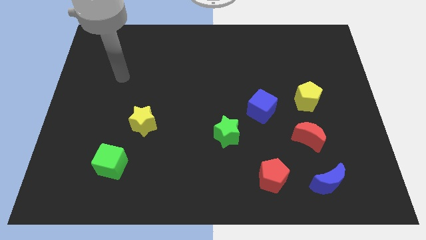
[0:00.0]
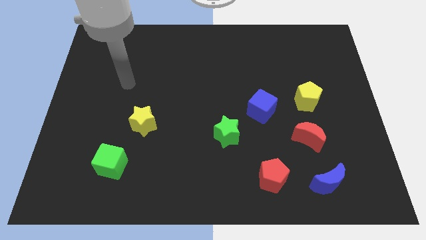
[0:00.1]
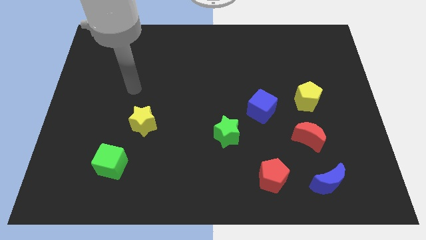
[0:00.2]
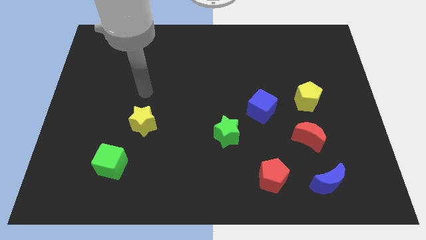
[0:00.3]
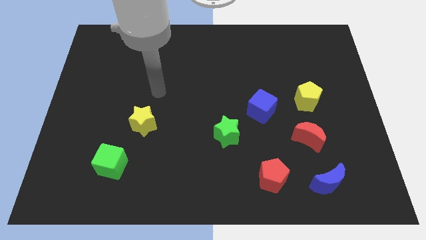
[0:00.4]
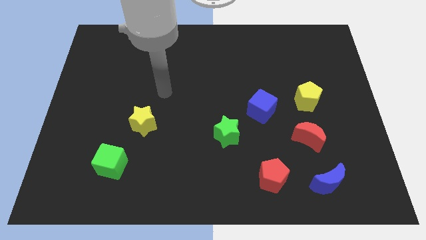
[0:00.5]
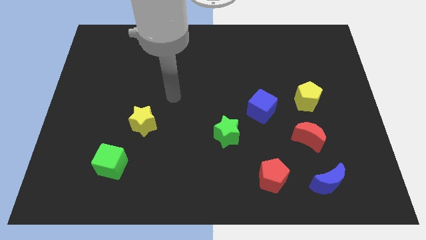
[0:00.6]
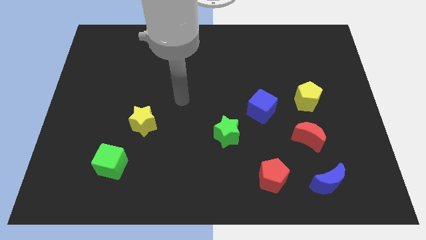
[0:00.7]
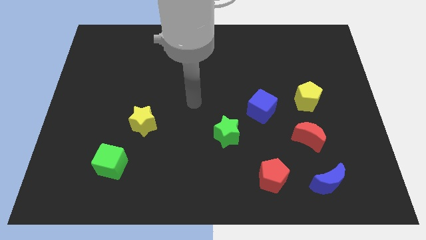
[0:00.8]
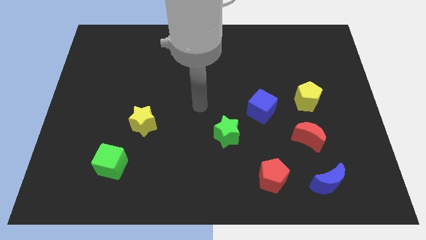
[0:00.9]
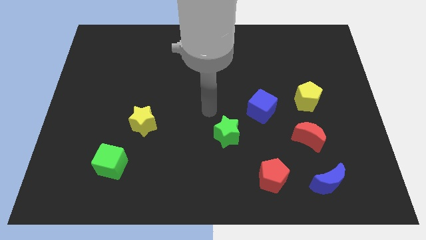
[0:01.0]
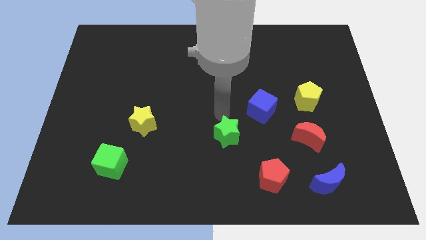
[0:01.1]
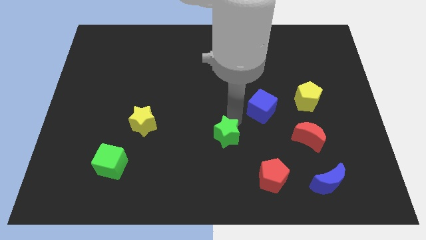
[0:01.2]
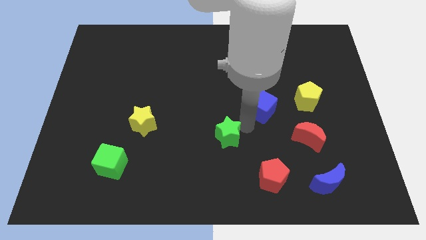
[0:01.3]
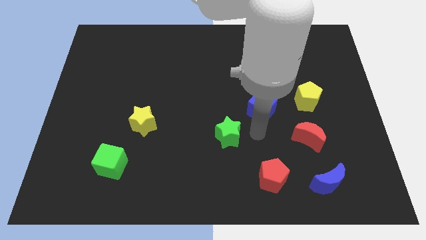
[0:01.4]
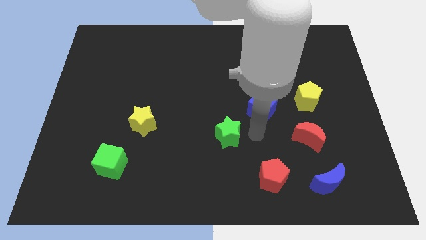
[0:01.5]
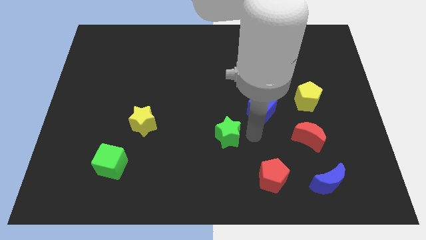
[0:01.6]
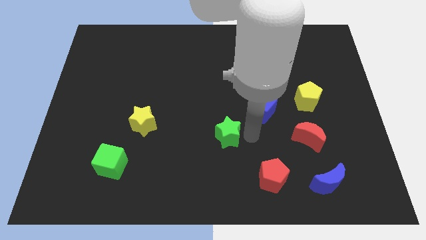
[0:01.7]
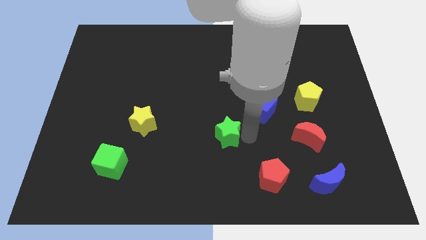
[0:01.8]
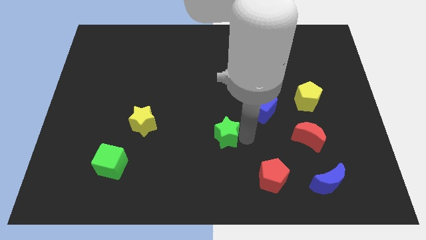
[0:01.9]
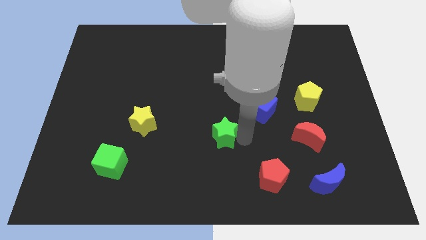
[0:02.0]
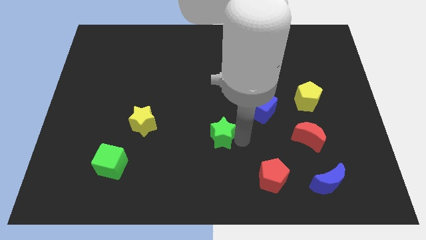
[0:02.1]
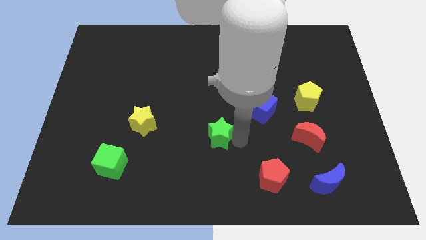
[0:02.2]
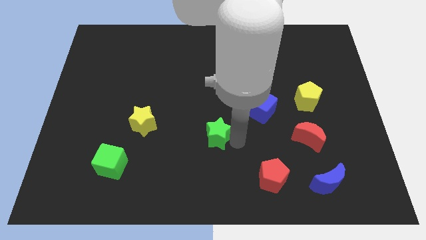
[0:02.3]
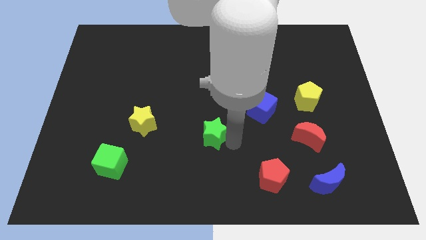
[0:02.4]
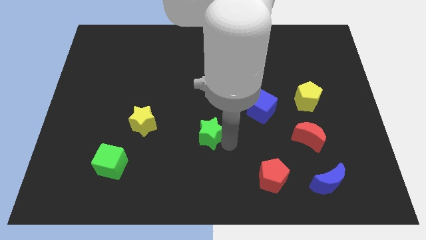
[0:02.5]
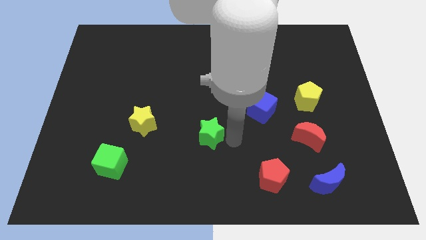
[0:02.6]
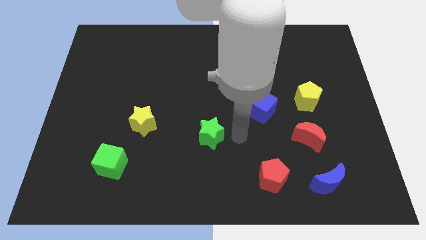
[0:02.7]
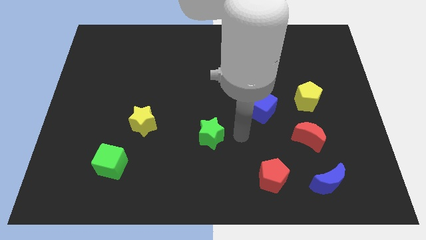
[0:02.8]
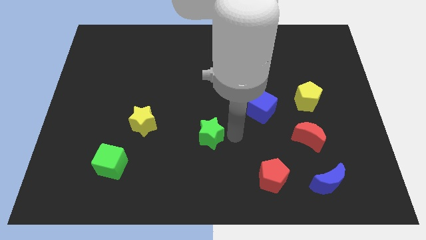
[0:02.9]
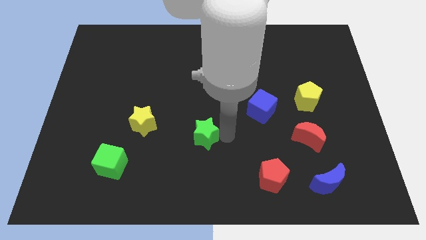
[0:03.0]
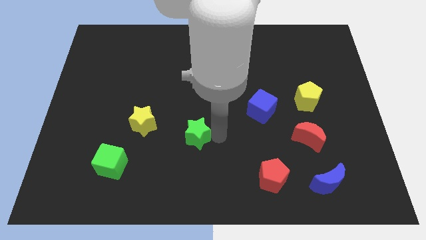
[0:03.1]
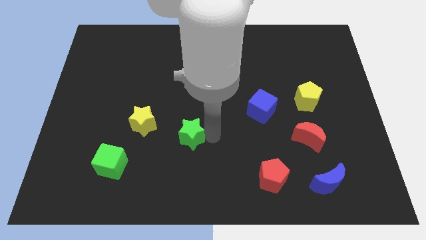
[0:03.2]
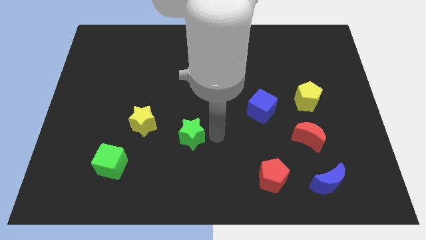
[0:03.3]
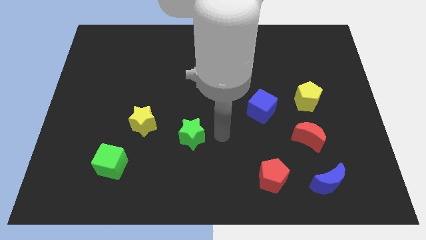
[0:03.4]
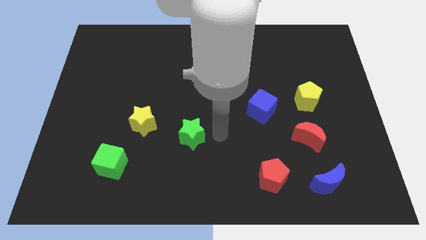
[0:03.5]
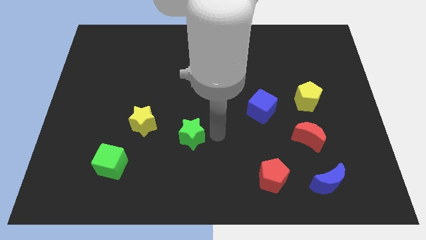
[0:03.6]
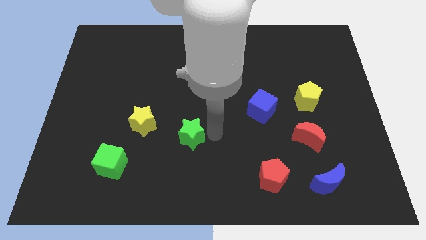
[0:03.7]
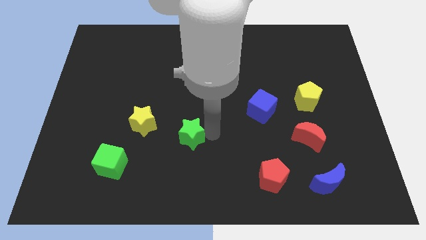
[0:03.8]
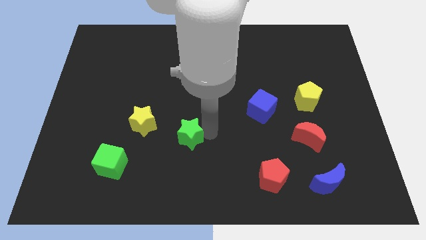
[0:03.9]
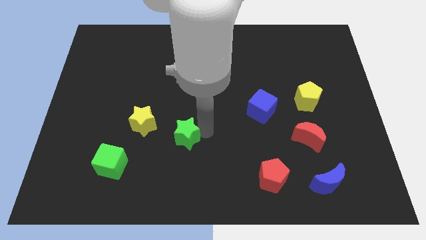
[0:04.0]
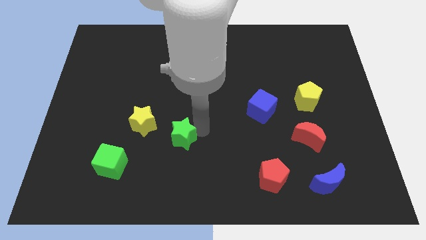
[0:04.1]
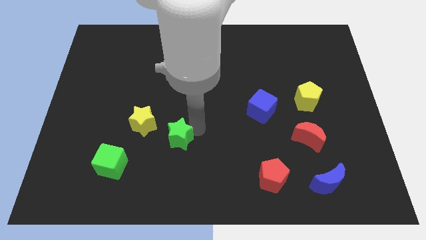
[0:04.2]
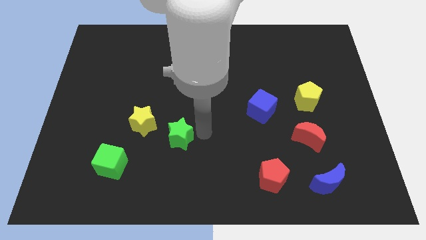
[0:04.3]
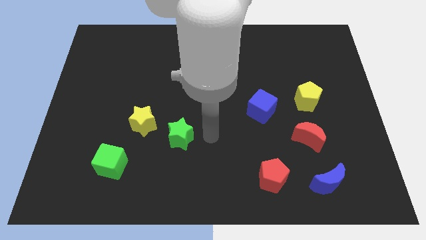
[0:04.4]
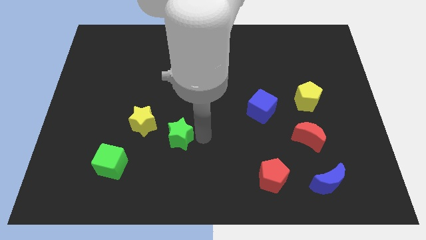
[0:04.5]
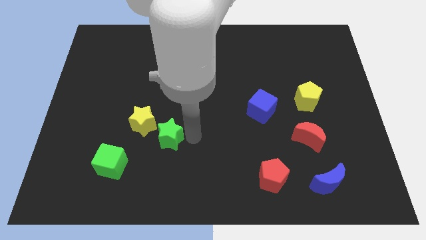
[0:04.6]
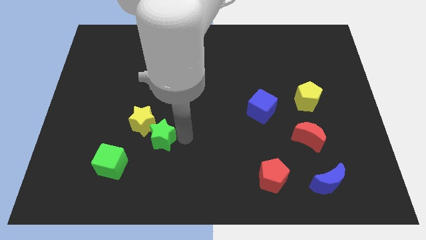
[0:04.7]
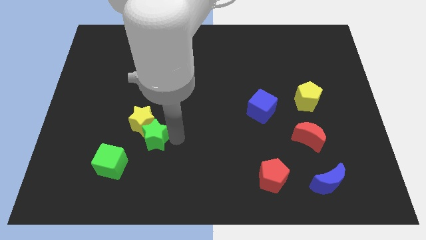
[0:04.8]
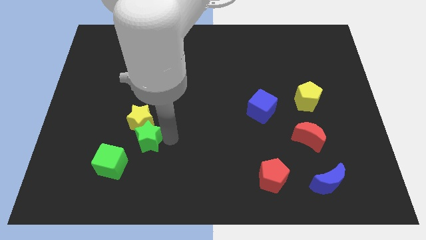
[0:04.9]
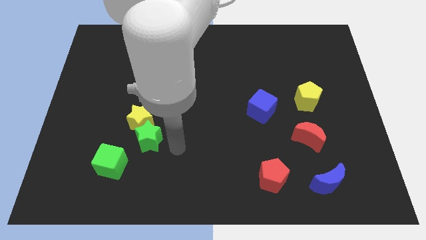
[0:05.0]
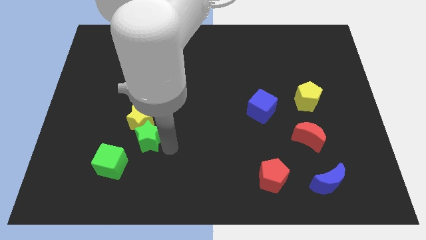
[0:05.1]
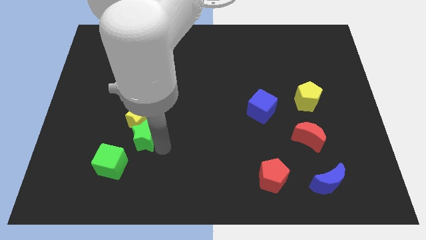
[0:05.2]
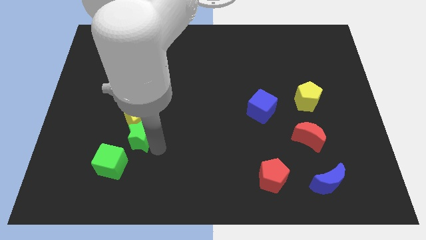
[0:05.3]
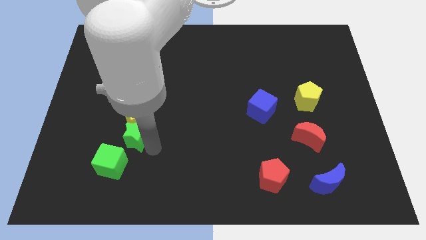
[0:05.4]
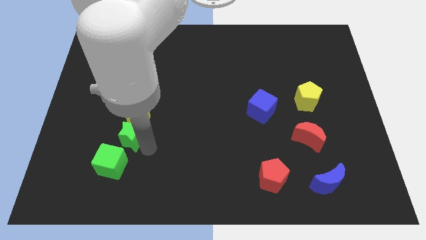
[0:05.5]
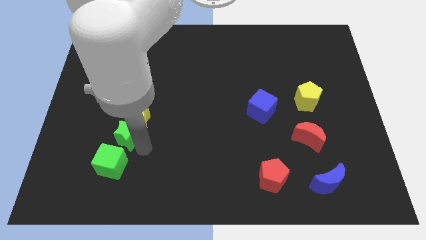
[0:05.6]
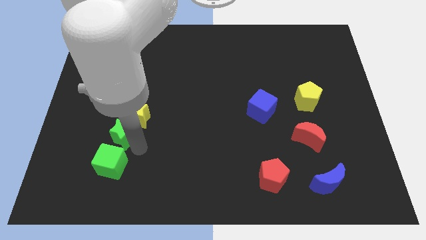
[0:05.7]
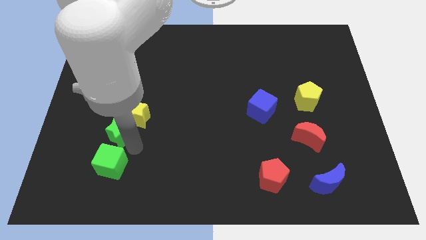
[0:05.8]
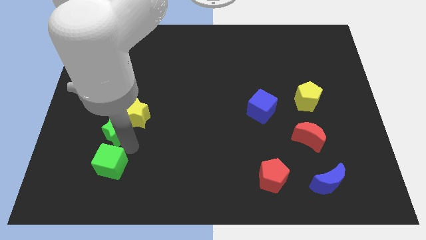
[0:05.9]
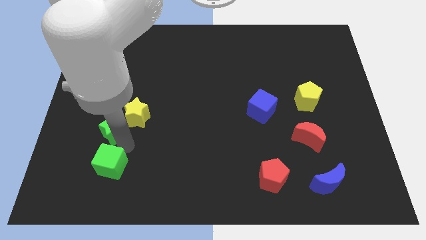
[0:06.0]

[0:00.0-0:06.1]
slide the green star left of the yellow star
